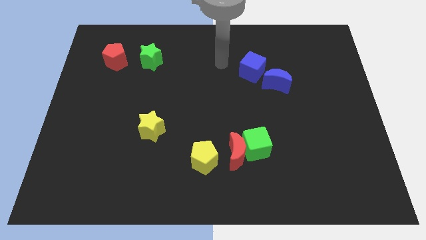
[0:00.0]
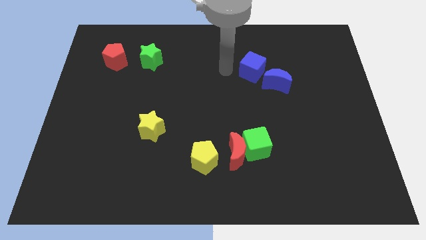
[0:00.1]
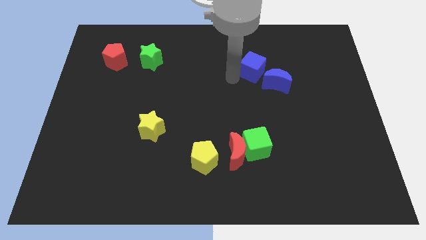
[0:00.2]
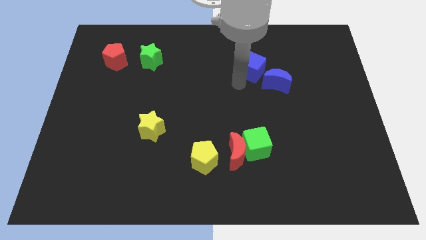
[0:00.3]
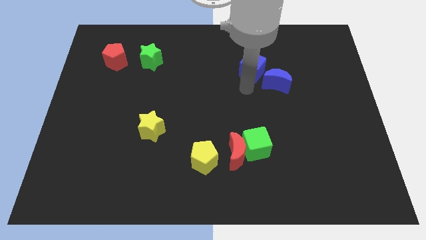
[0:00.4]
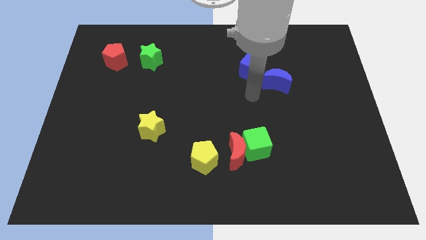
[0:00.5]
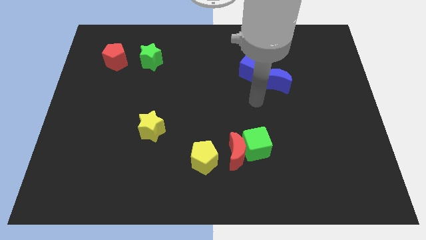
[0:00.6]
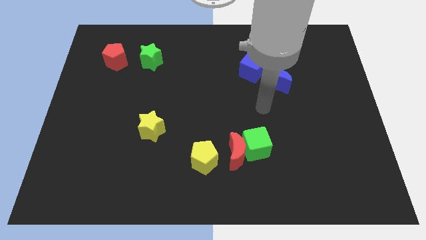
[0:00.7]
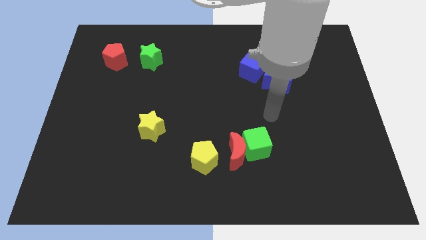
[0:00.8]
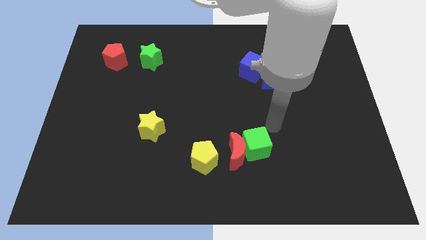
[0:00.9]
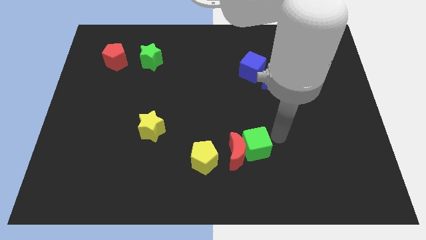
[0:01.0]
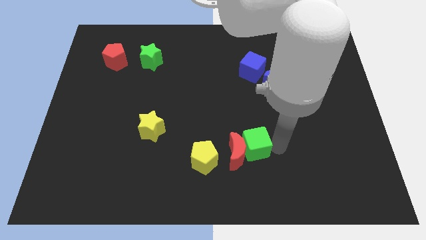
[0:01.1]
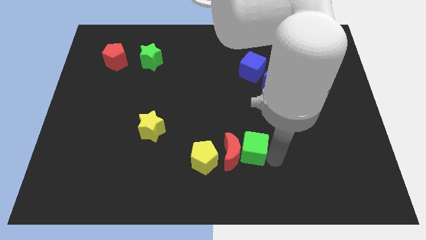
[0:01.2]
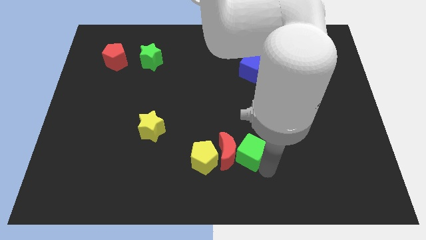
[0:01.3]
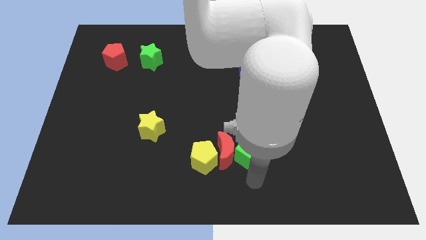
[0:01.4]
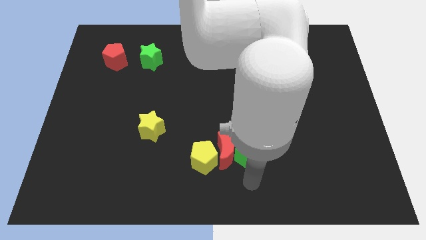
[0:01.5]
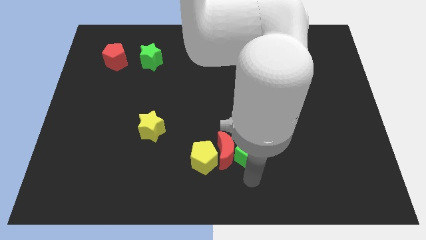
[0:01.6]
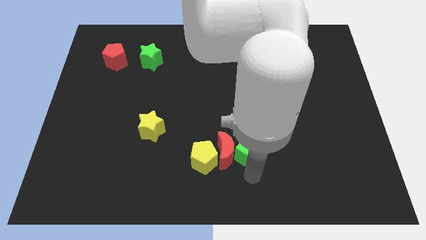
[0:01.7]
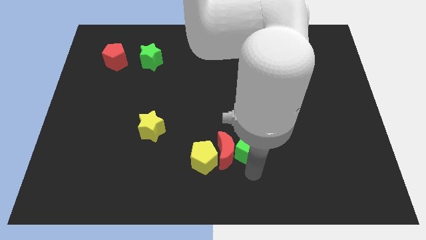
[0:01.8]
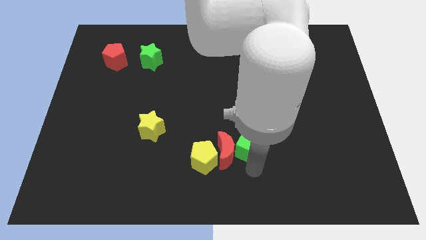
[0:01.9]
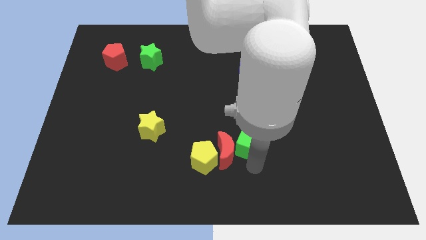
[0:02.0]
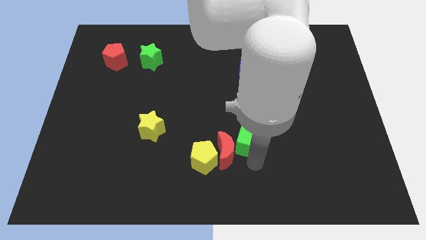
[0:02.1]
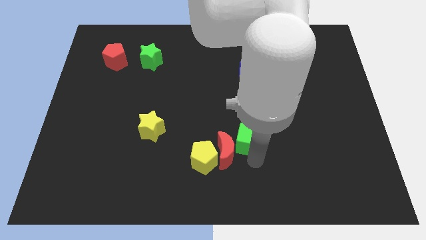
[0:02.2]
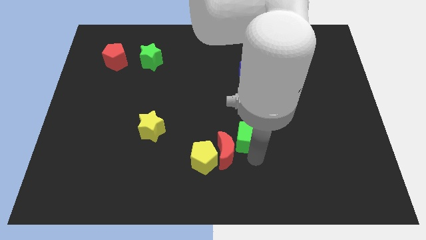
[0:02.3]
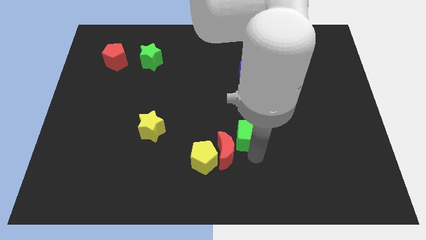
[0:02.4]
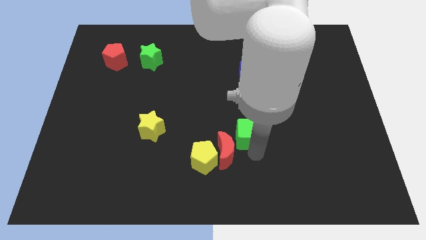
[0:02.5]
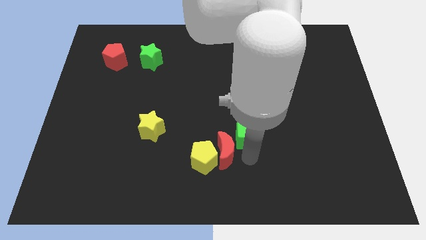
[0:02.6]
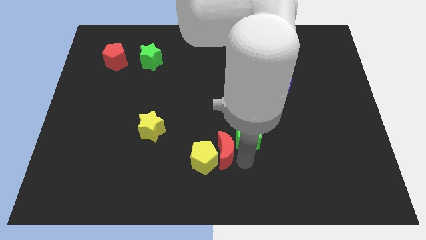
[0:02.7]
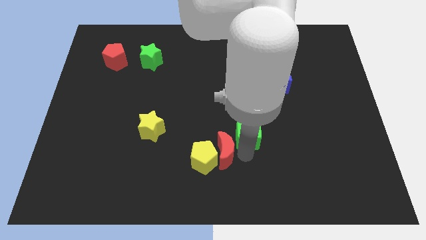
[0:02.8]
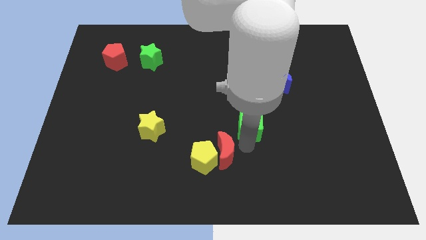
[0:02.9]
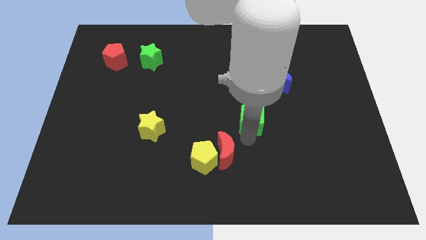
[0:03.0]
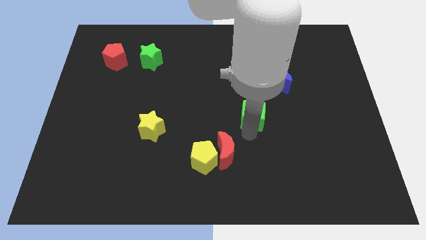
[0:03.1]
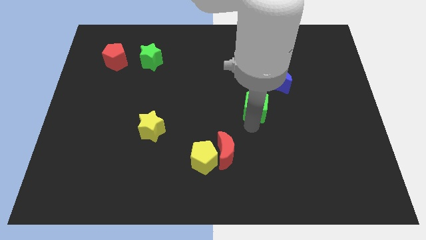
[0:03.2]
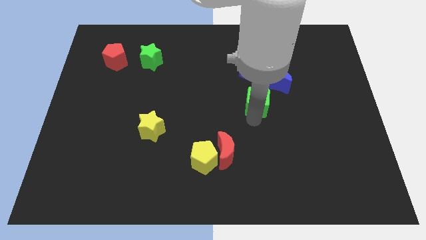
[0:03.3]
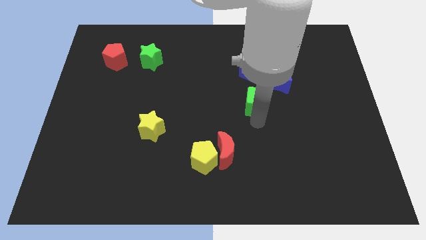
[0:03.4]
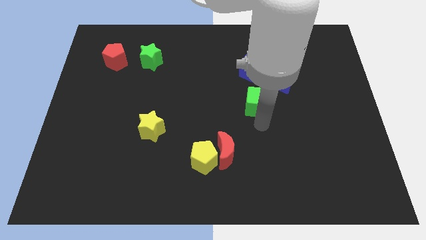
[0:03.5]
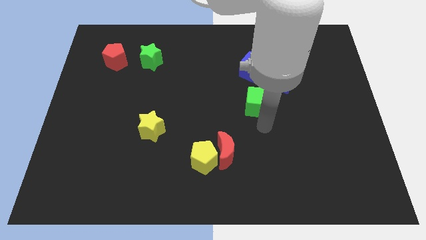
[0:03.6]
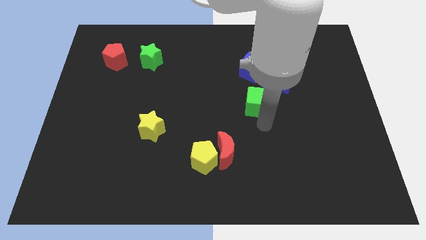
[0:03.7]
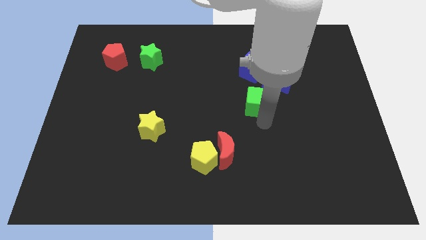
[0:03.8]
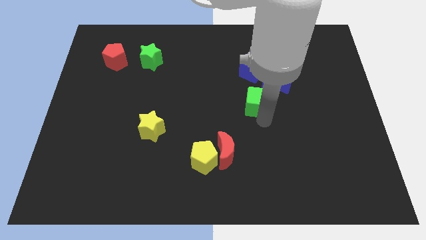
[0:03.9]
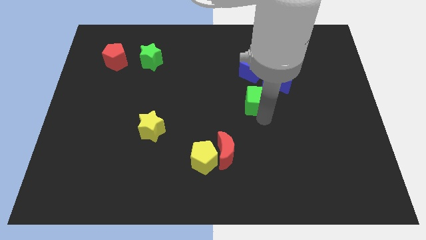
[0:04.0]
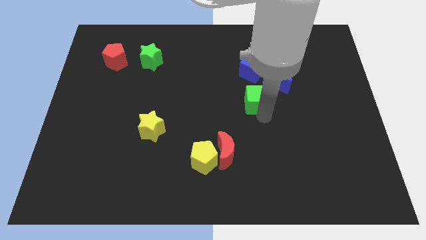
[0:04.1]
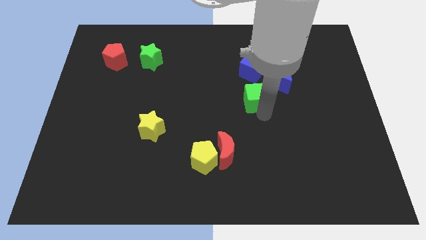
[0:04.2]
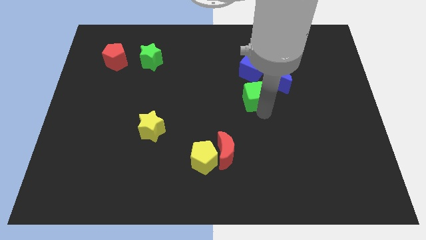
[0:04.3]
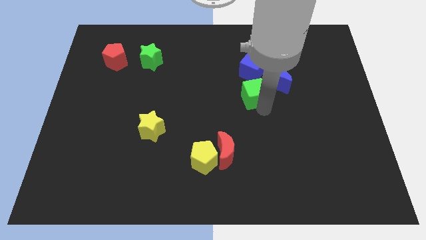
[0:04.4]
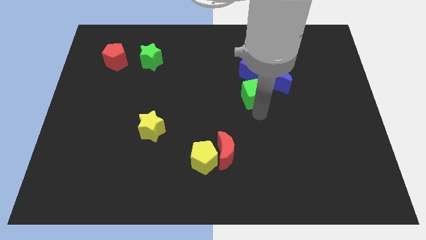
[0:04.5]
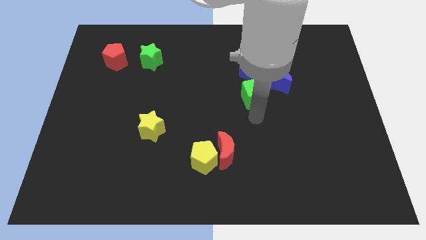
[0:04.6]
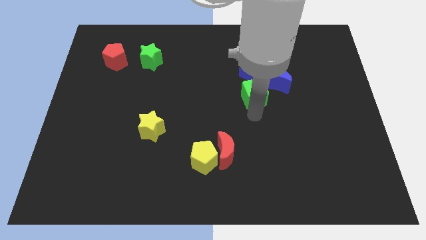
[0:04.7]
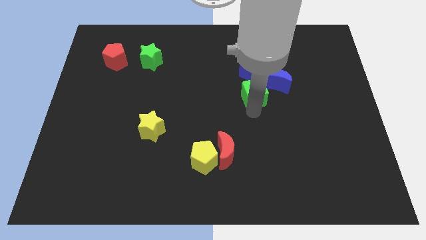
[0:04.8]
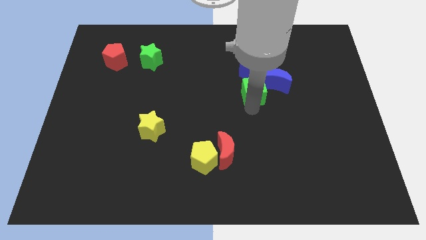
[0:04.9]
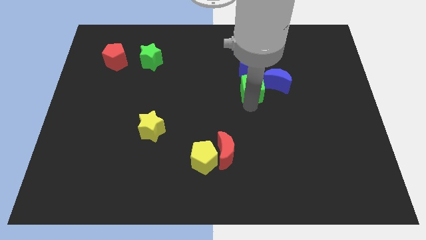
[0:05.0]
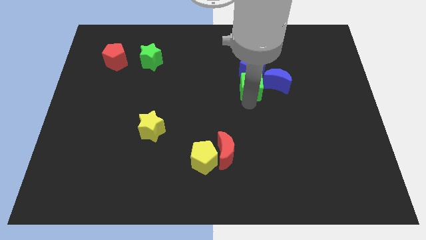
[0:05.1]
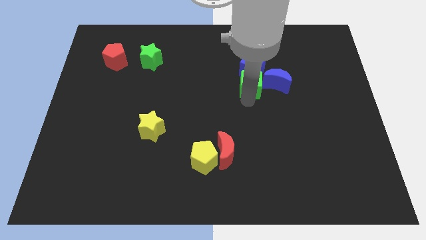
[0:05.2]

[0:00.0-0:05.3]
slide the green cube towards the blue cube

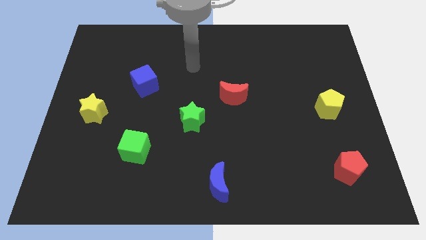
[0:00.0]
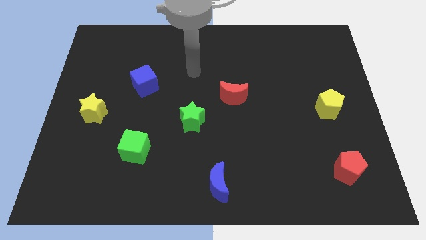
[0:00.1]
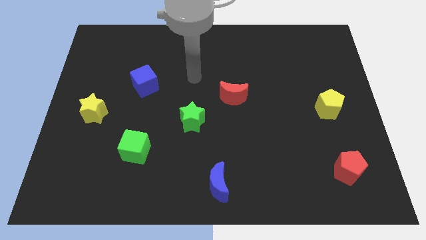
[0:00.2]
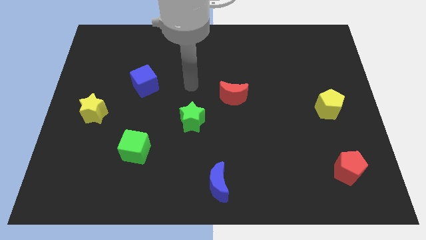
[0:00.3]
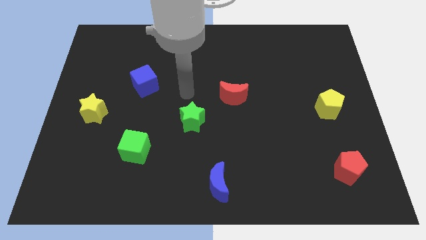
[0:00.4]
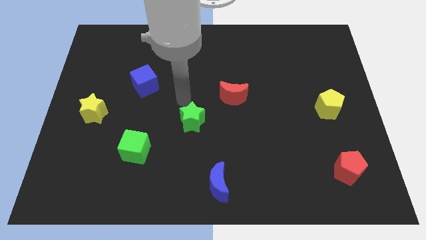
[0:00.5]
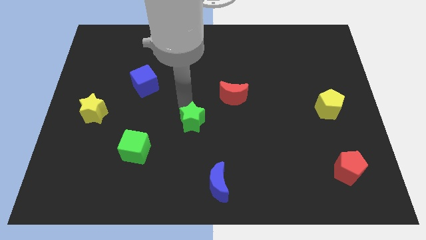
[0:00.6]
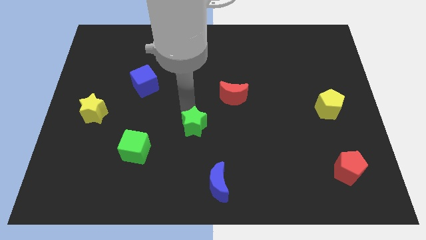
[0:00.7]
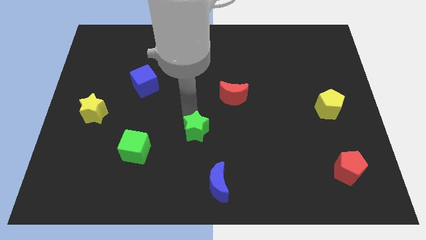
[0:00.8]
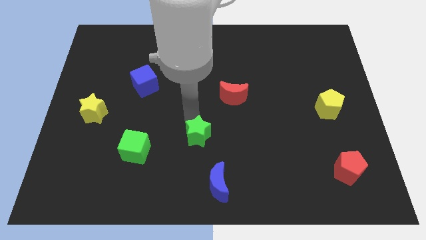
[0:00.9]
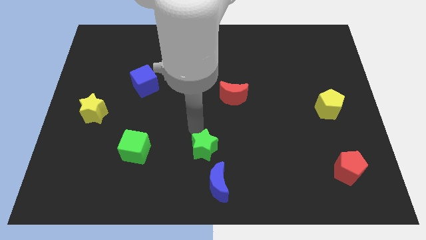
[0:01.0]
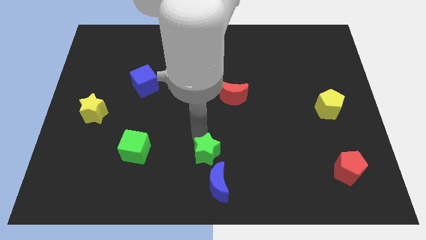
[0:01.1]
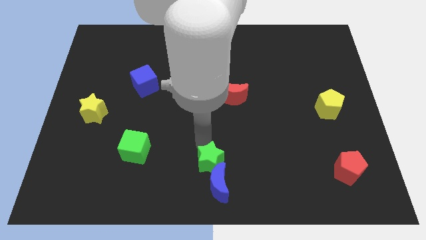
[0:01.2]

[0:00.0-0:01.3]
push the green star towards the blue moon

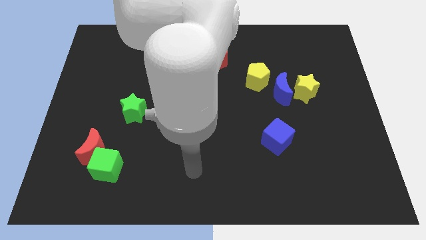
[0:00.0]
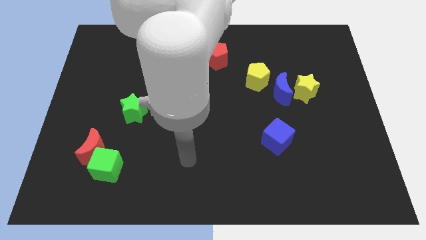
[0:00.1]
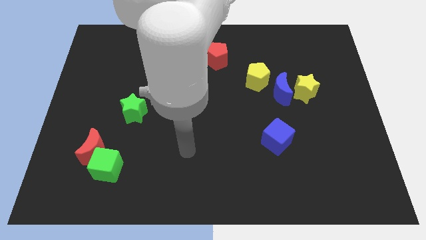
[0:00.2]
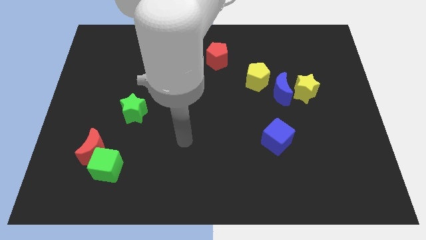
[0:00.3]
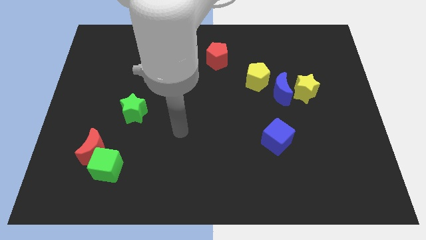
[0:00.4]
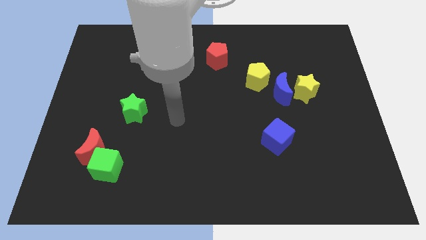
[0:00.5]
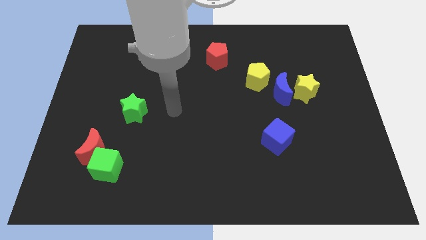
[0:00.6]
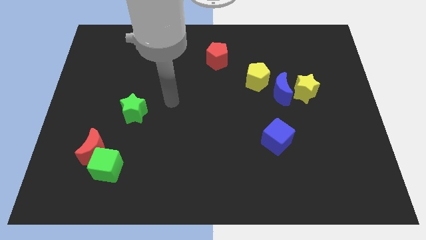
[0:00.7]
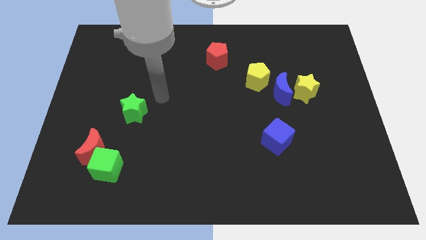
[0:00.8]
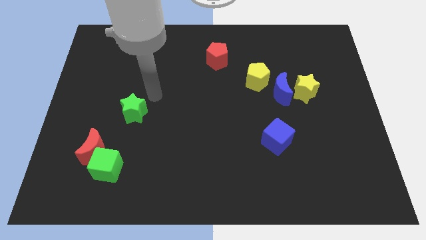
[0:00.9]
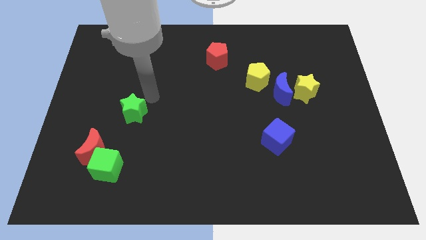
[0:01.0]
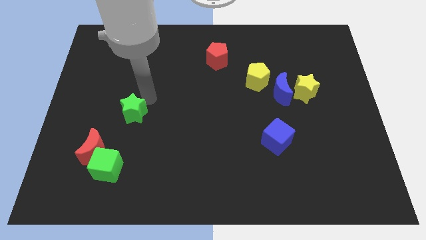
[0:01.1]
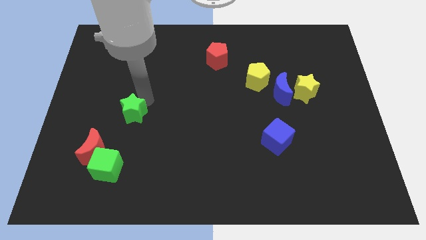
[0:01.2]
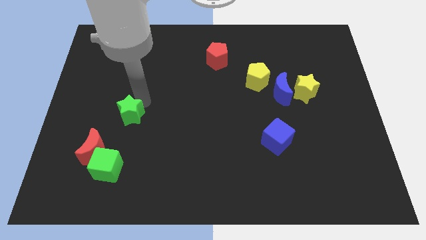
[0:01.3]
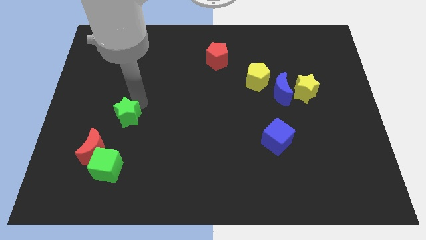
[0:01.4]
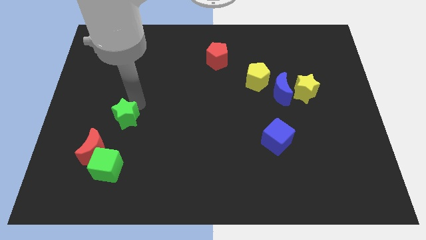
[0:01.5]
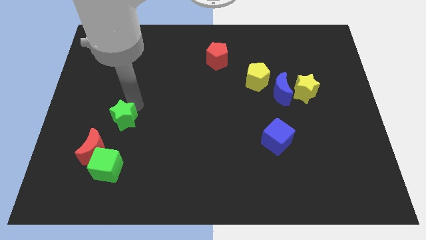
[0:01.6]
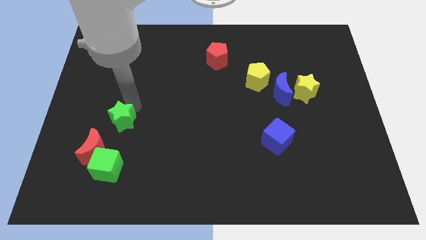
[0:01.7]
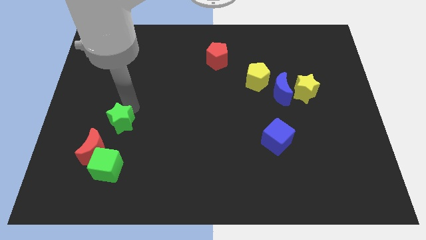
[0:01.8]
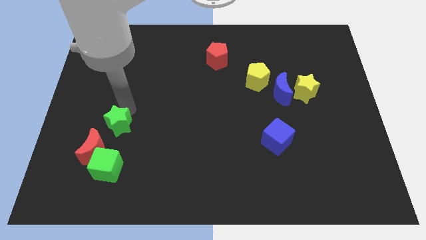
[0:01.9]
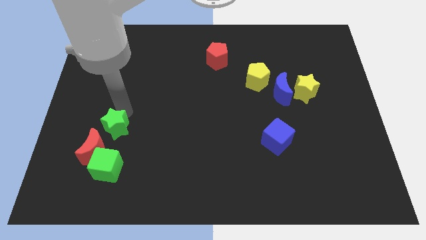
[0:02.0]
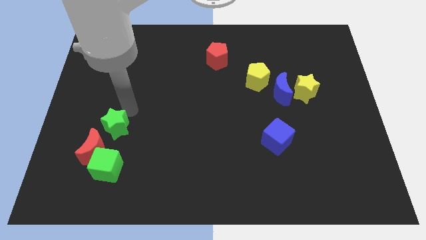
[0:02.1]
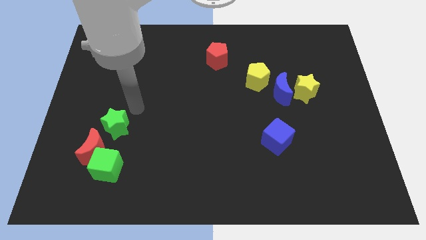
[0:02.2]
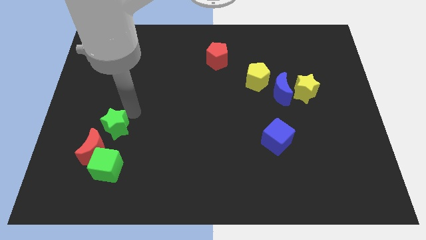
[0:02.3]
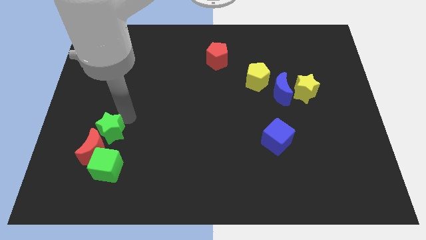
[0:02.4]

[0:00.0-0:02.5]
put the green star towards the red moon
